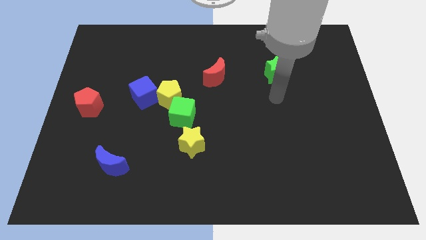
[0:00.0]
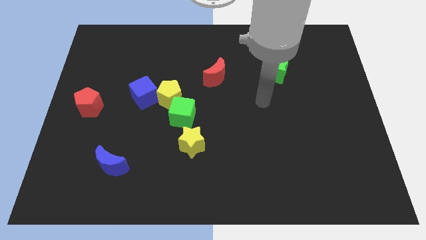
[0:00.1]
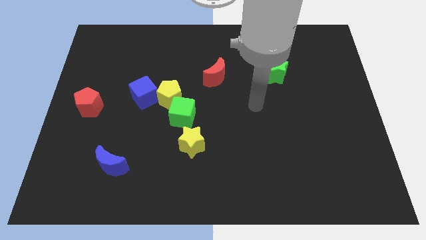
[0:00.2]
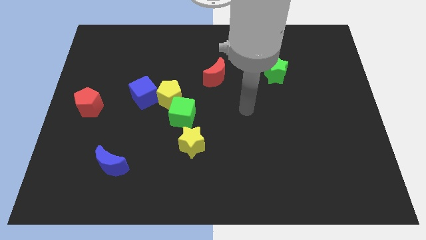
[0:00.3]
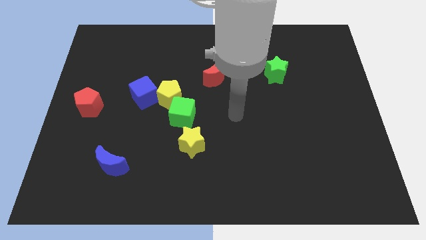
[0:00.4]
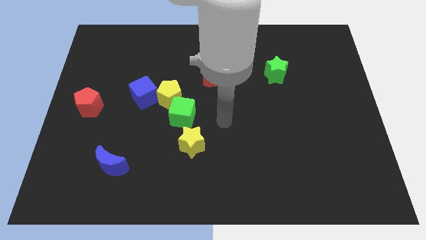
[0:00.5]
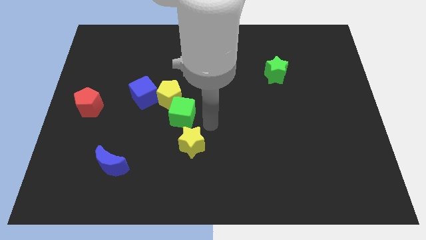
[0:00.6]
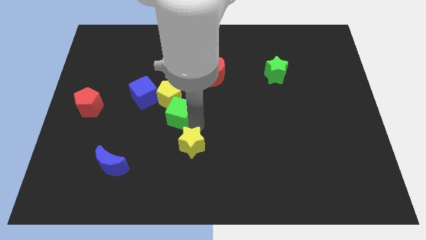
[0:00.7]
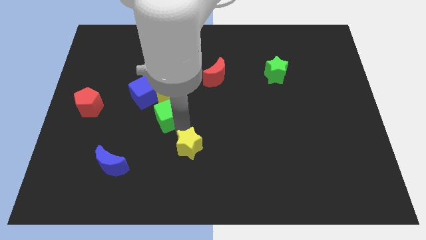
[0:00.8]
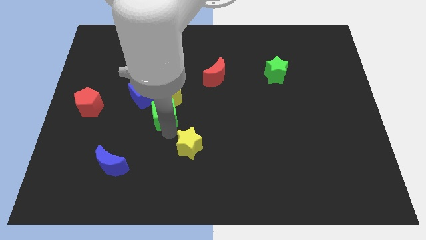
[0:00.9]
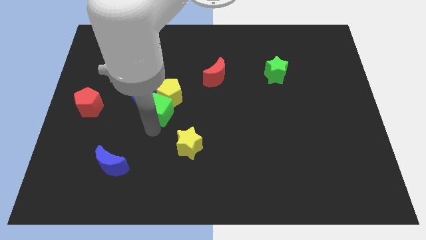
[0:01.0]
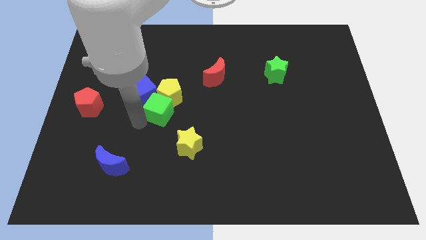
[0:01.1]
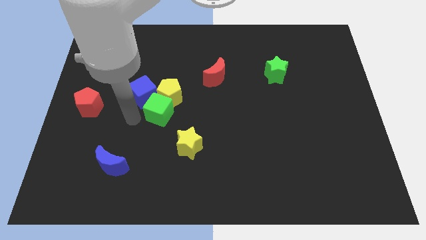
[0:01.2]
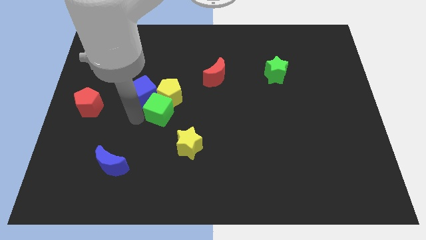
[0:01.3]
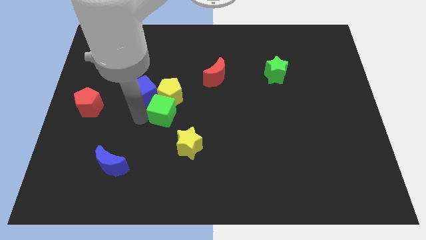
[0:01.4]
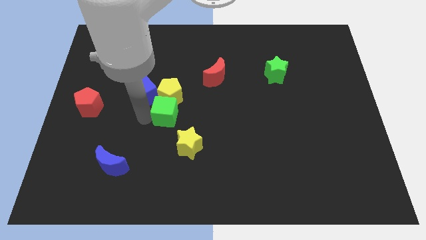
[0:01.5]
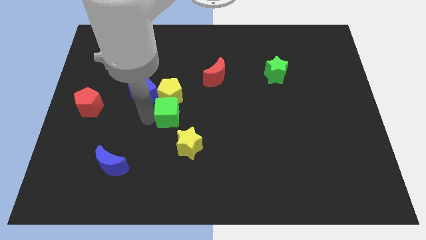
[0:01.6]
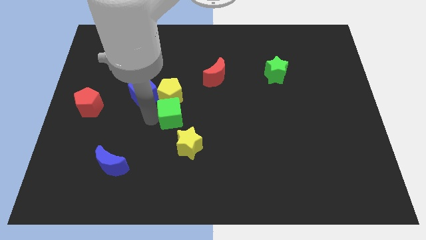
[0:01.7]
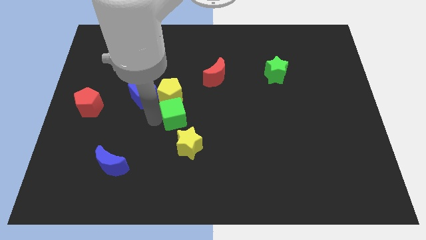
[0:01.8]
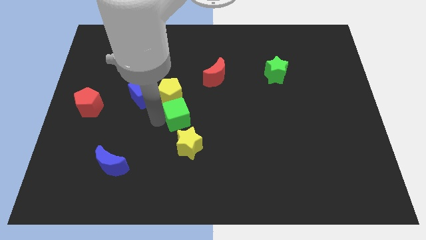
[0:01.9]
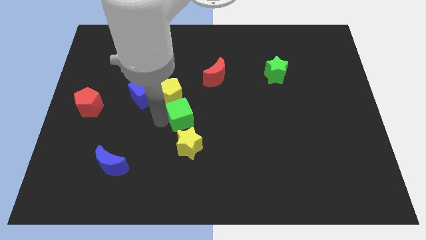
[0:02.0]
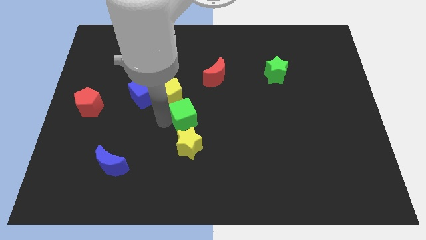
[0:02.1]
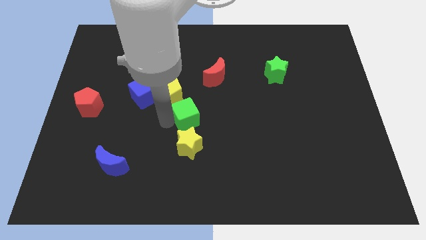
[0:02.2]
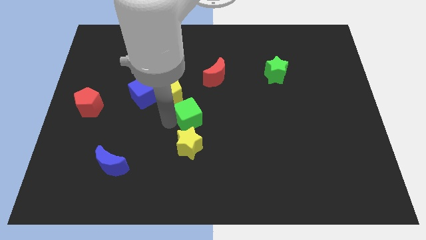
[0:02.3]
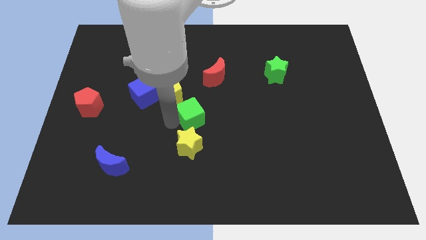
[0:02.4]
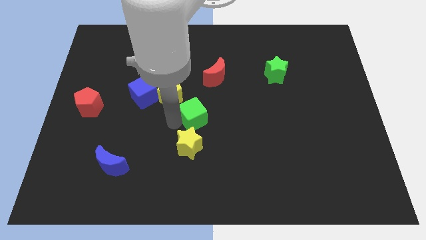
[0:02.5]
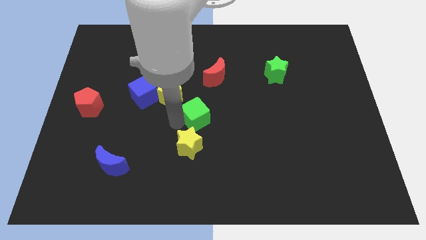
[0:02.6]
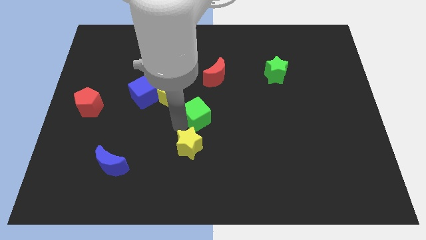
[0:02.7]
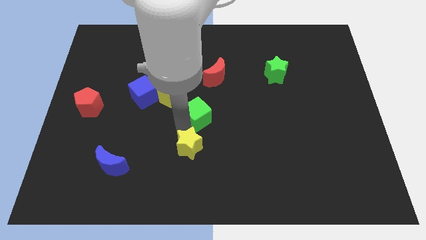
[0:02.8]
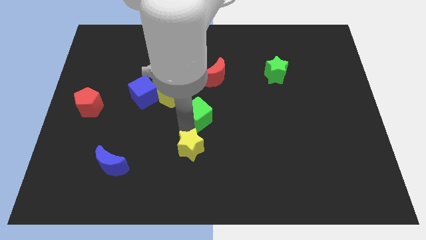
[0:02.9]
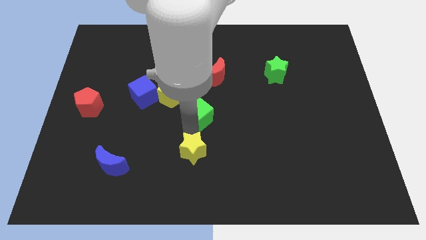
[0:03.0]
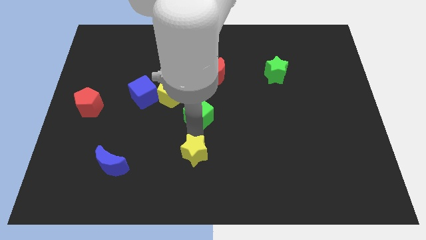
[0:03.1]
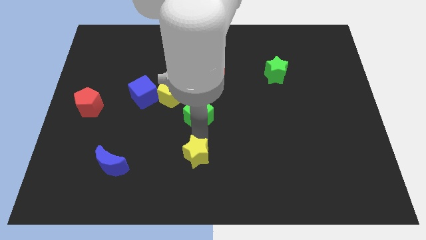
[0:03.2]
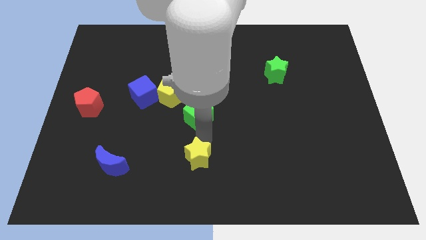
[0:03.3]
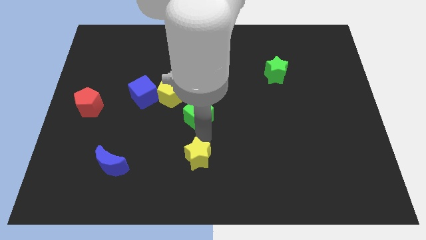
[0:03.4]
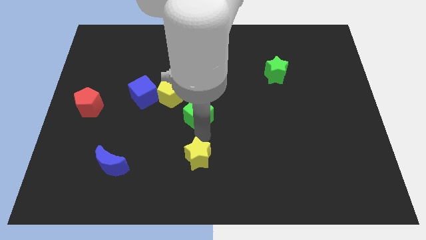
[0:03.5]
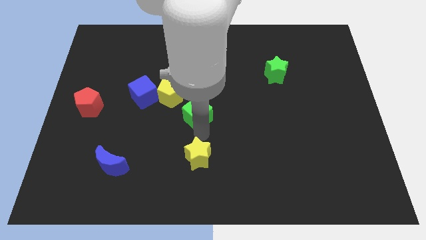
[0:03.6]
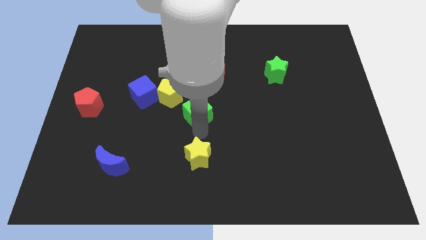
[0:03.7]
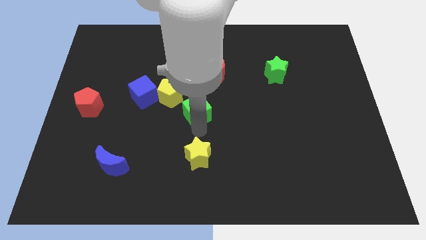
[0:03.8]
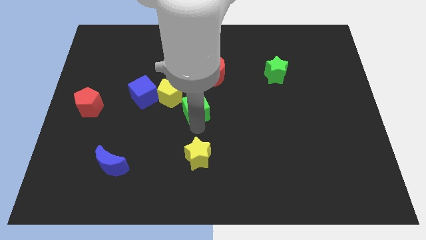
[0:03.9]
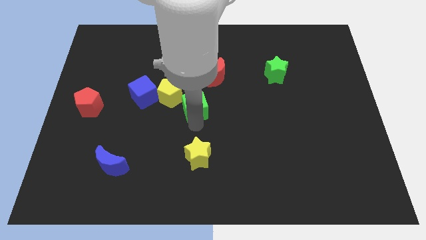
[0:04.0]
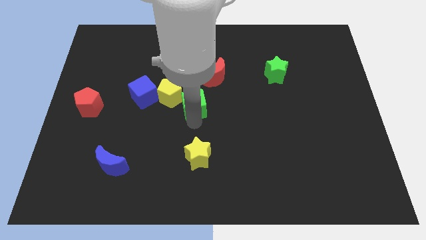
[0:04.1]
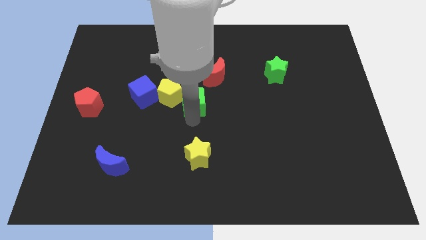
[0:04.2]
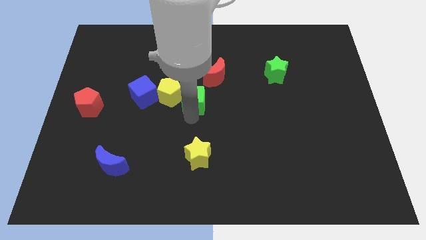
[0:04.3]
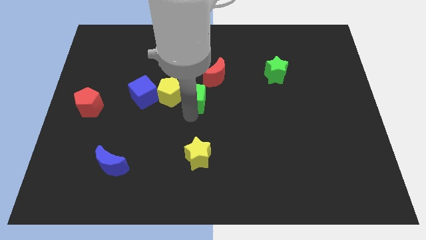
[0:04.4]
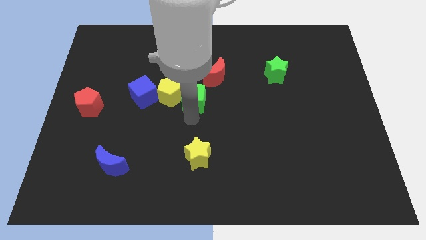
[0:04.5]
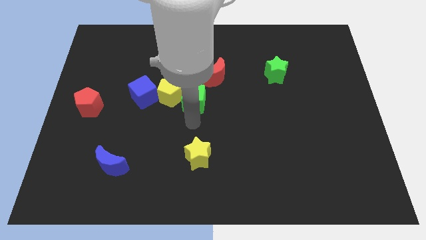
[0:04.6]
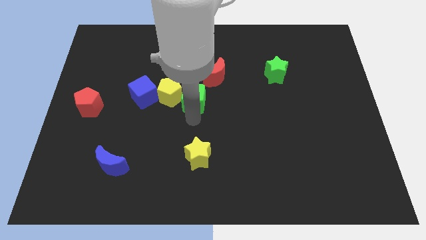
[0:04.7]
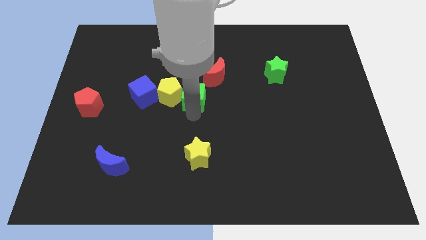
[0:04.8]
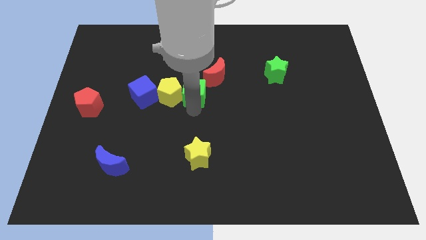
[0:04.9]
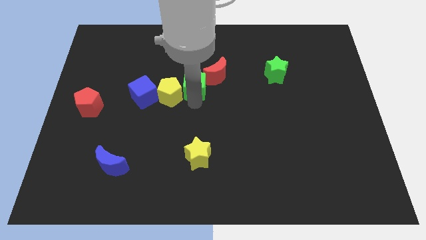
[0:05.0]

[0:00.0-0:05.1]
move the green cube up a little

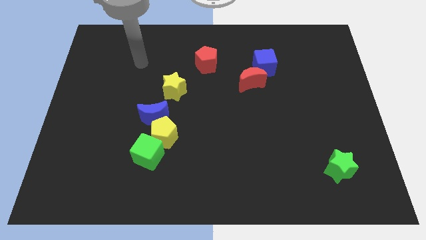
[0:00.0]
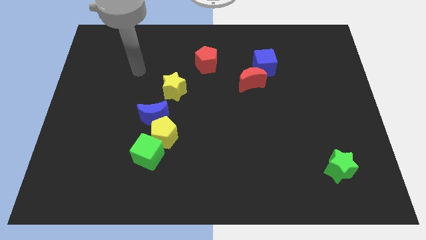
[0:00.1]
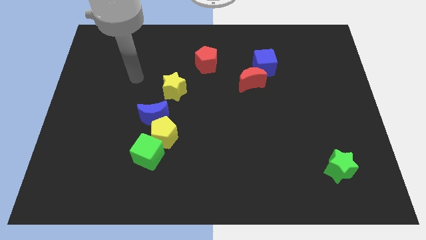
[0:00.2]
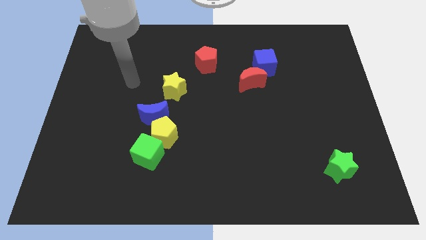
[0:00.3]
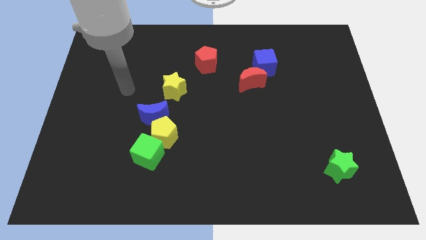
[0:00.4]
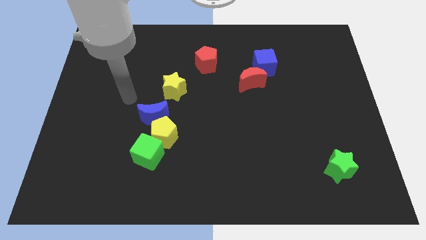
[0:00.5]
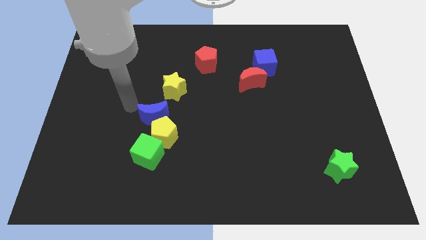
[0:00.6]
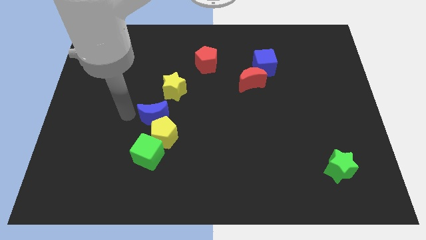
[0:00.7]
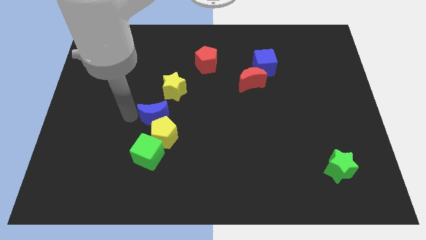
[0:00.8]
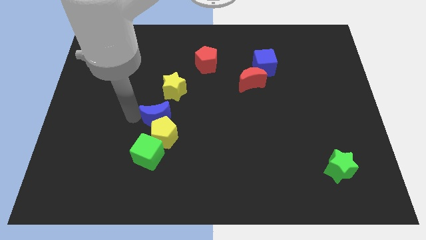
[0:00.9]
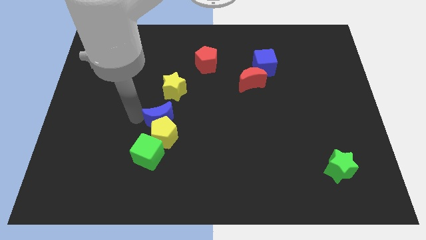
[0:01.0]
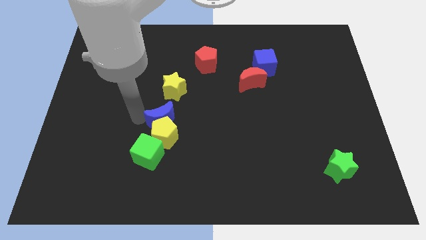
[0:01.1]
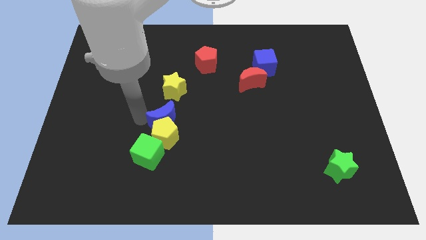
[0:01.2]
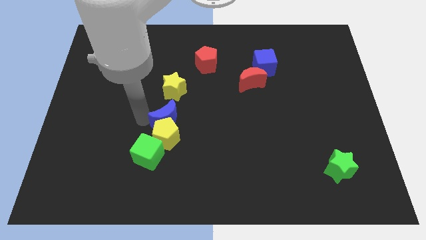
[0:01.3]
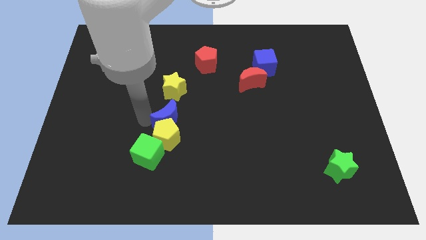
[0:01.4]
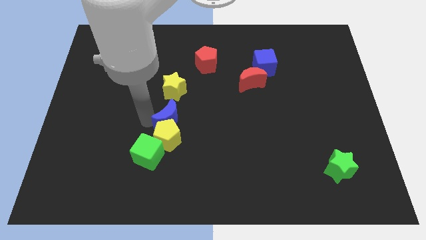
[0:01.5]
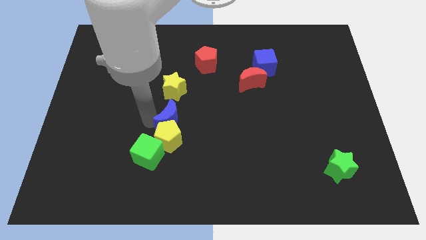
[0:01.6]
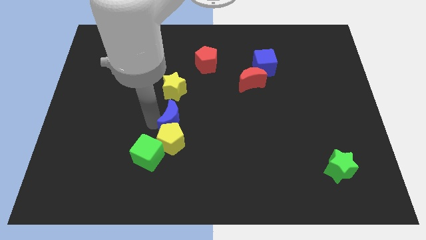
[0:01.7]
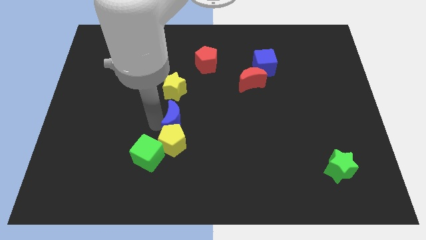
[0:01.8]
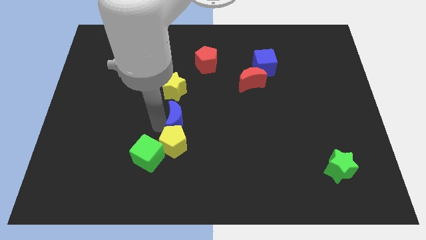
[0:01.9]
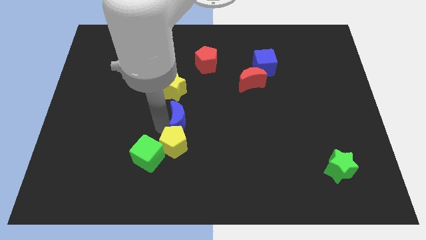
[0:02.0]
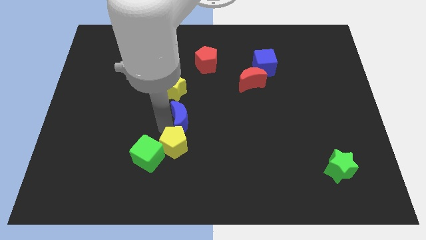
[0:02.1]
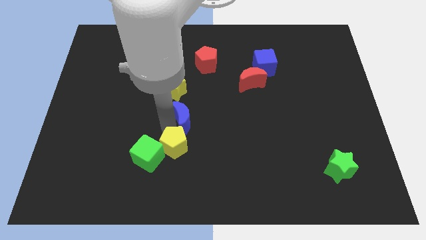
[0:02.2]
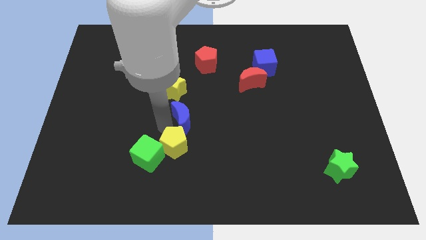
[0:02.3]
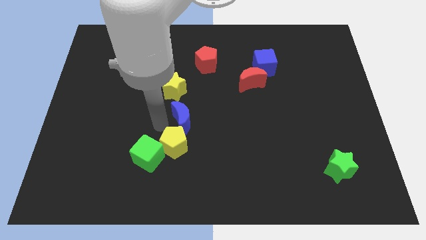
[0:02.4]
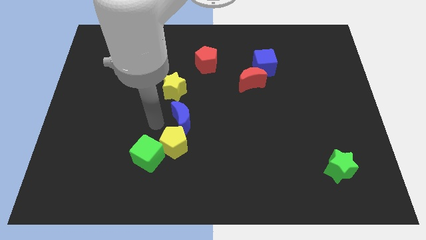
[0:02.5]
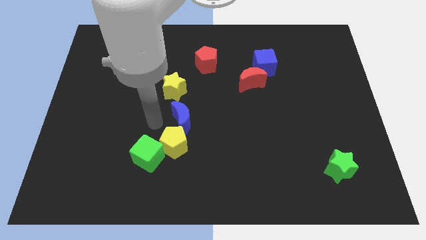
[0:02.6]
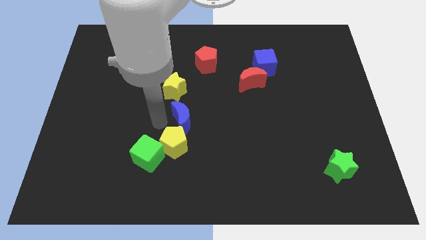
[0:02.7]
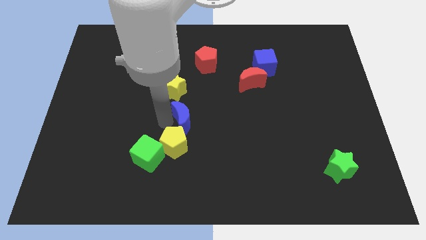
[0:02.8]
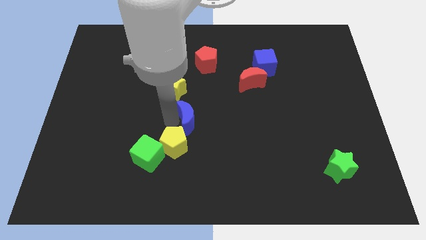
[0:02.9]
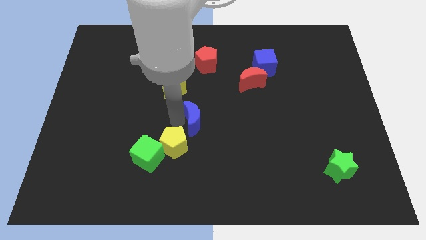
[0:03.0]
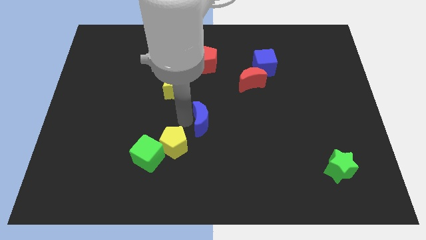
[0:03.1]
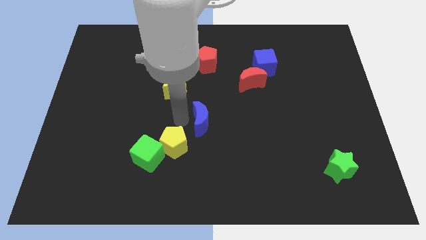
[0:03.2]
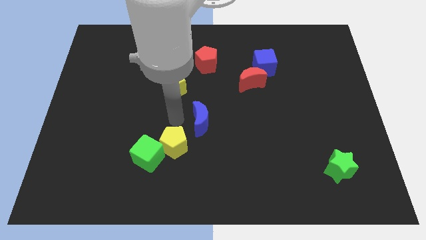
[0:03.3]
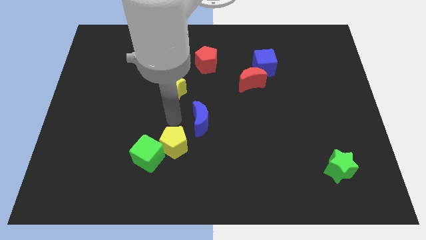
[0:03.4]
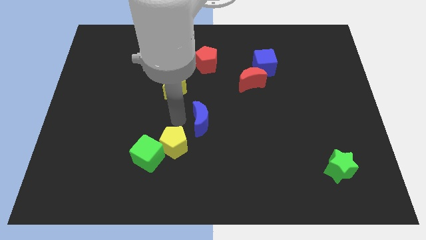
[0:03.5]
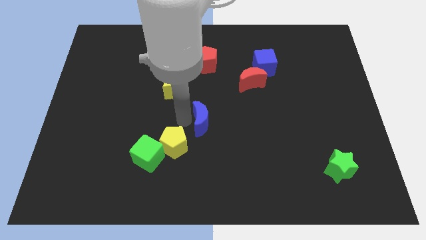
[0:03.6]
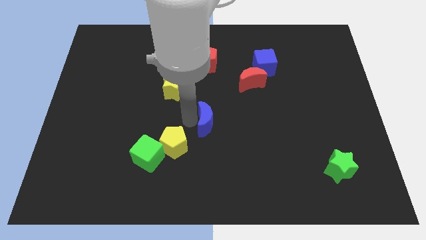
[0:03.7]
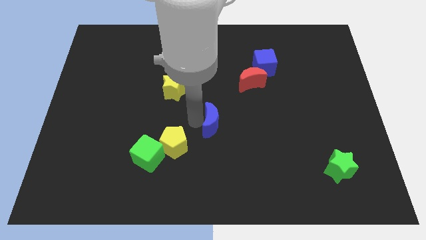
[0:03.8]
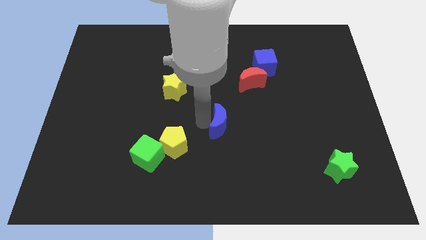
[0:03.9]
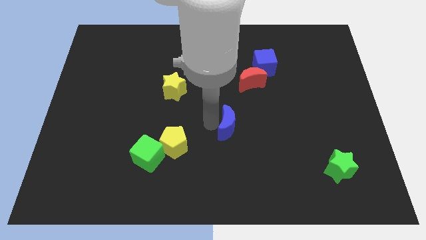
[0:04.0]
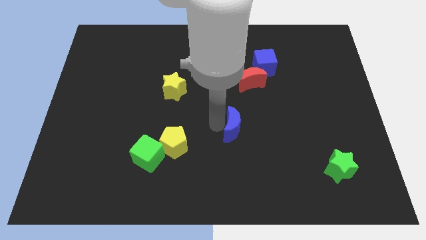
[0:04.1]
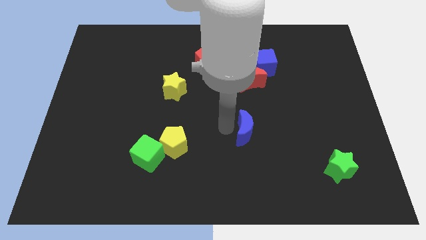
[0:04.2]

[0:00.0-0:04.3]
move the blue moon right
